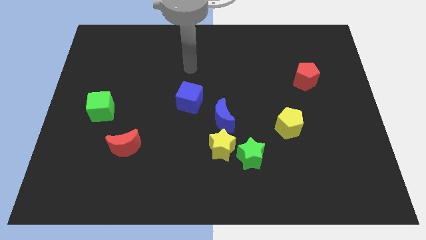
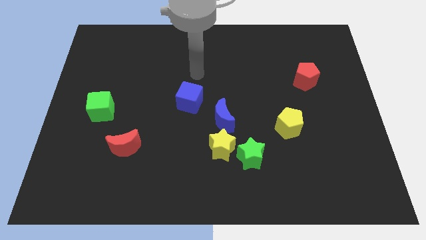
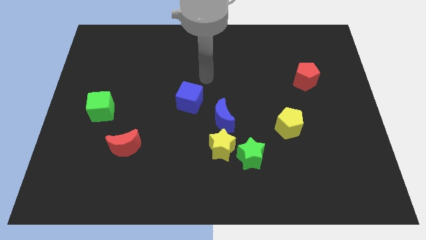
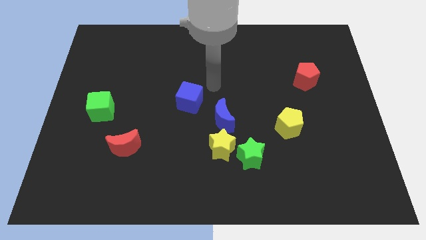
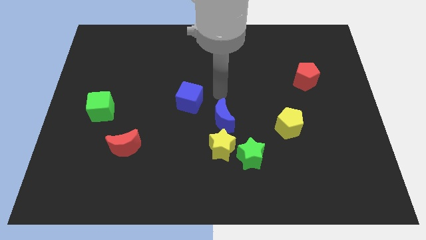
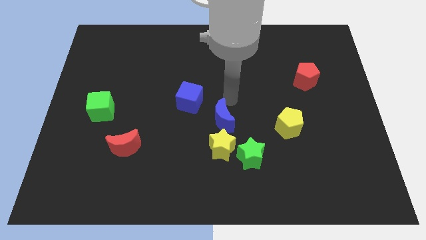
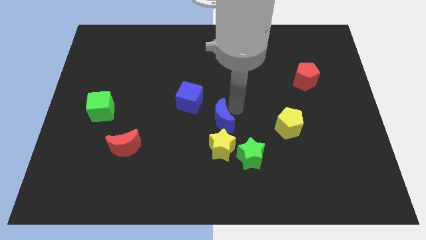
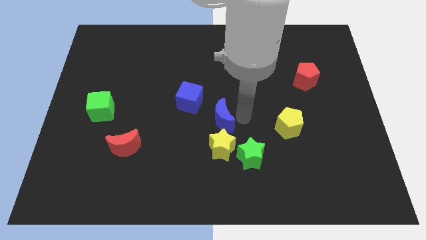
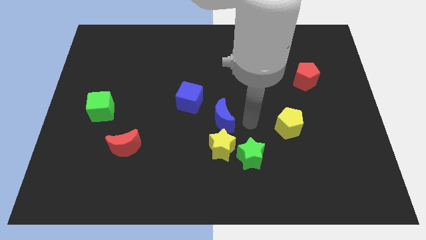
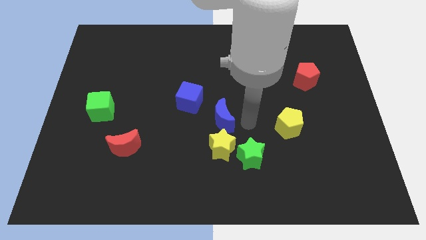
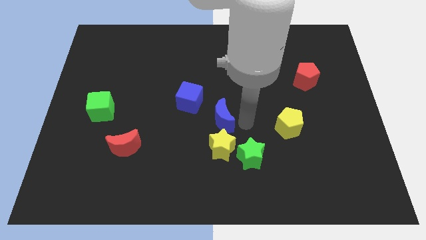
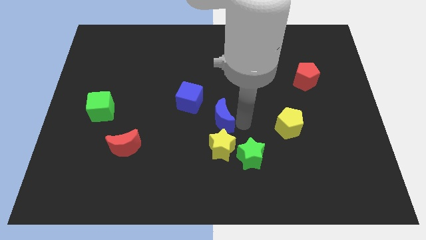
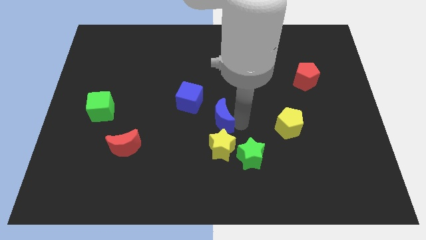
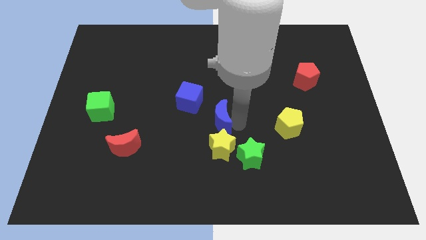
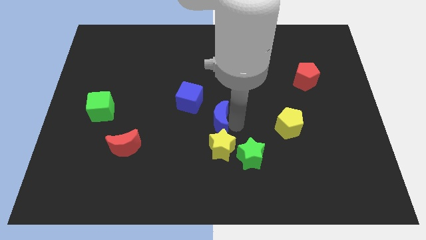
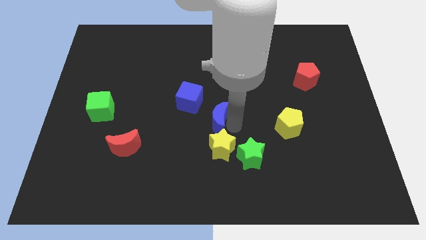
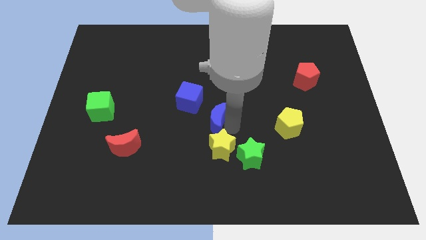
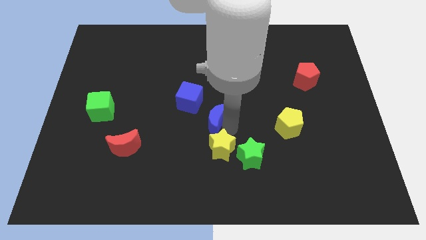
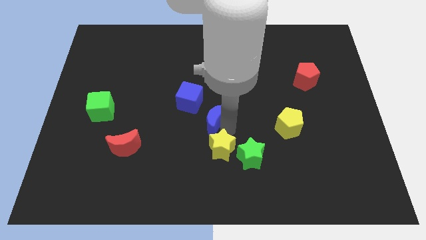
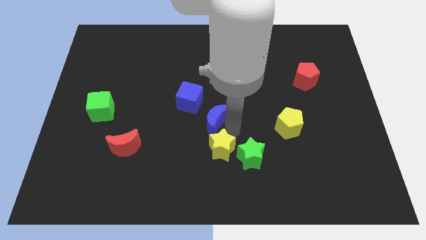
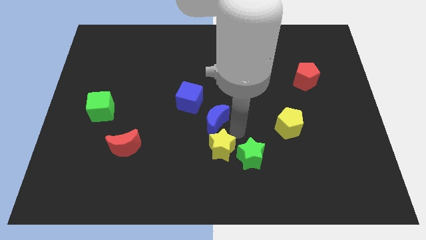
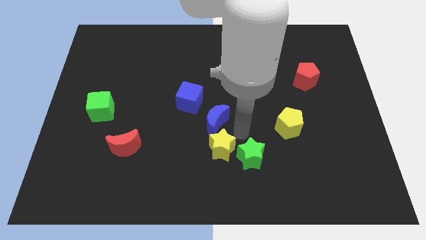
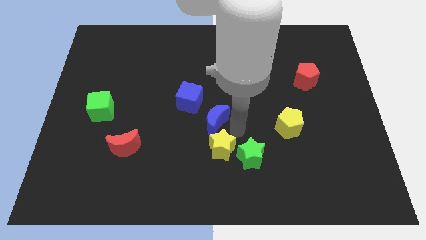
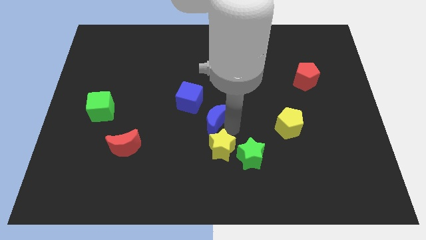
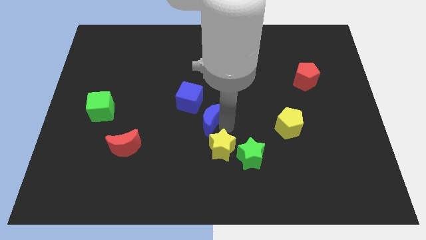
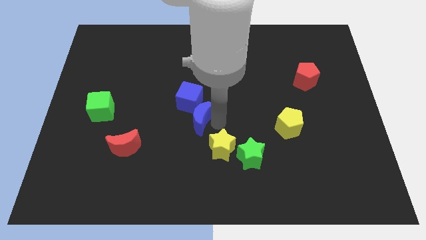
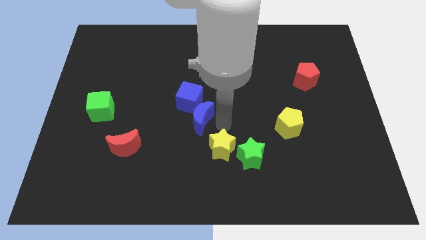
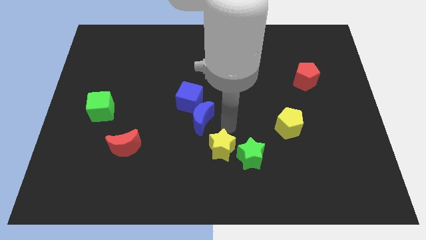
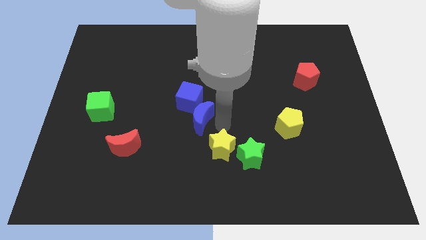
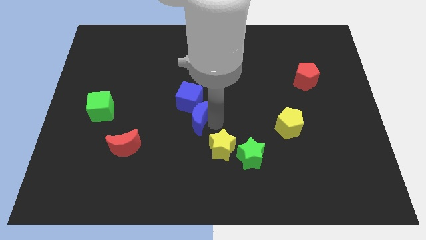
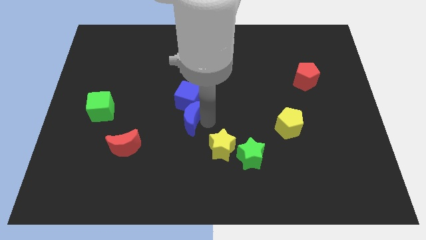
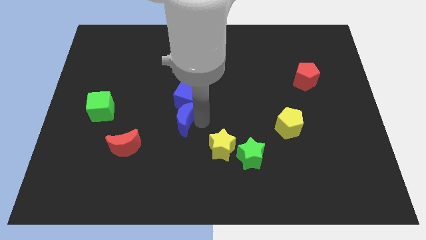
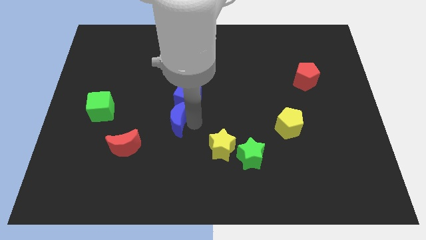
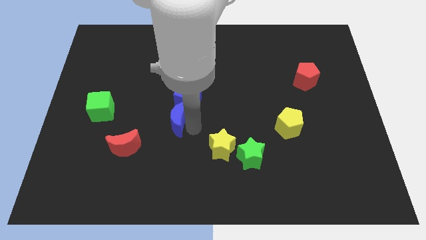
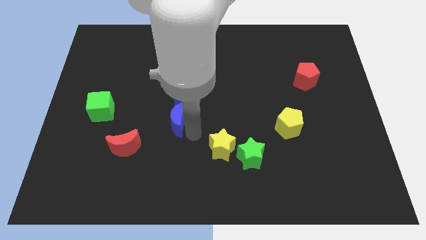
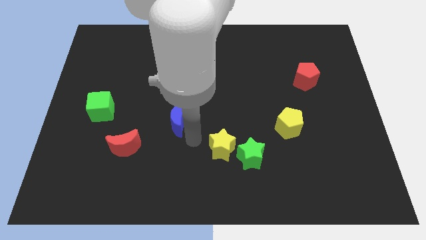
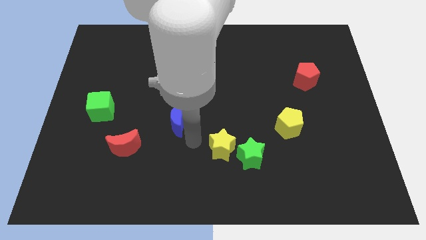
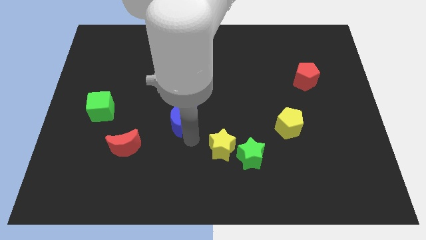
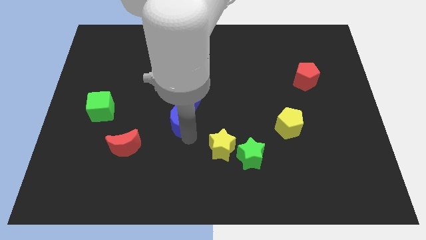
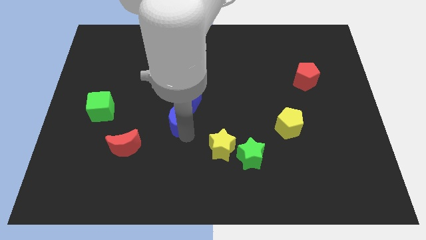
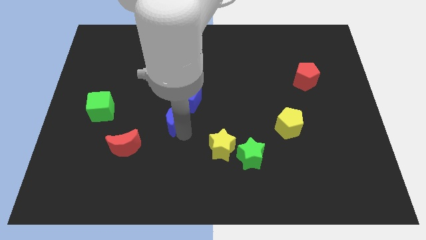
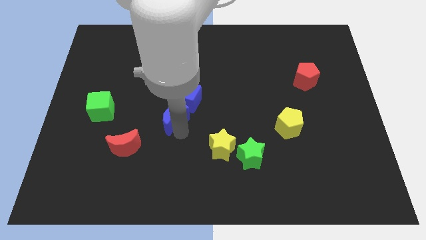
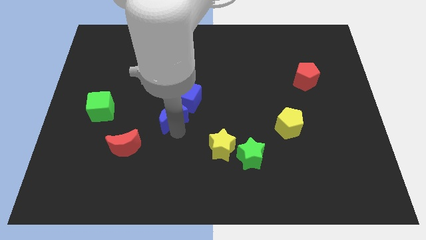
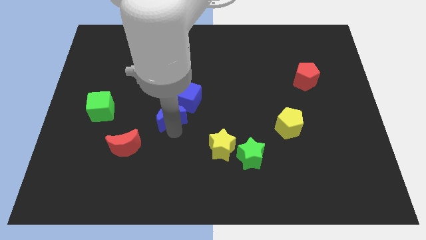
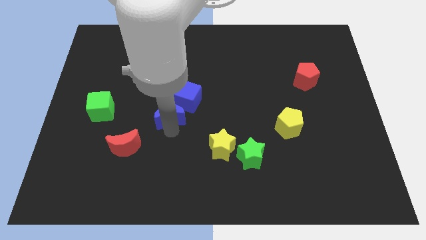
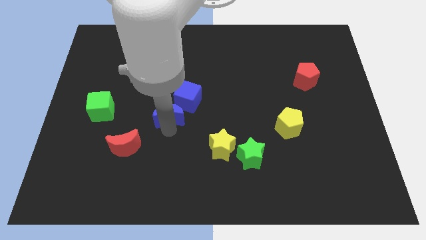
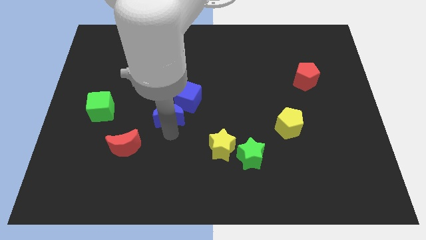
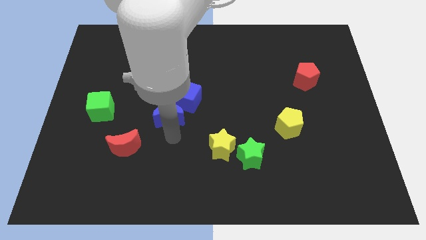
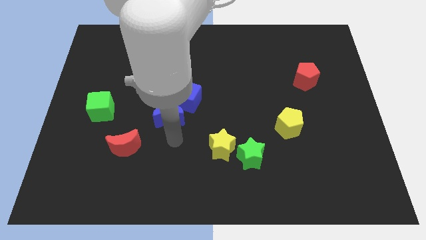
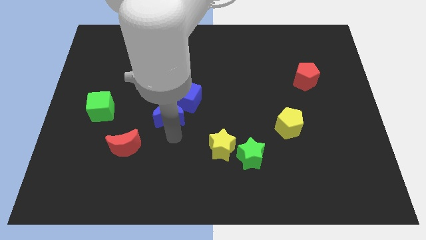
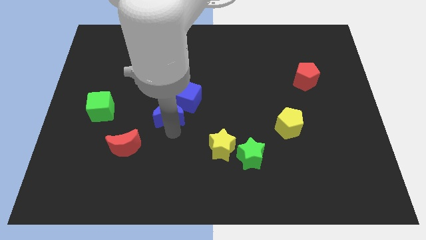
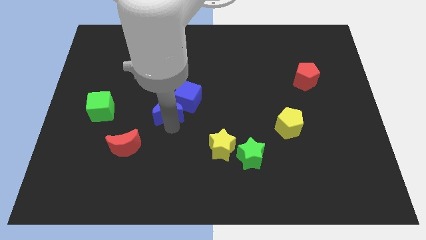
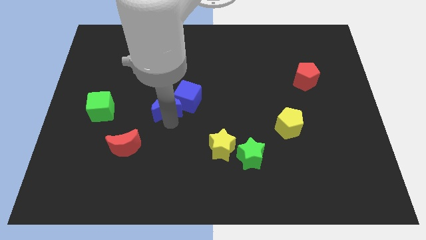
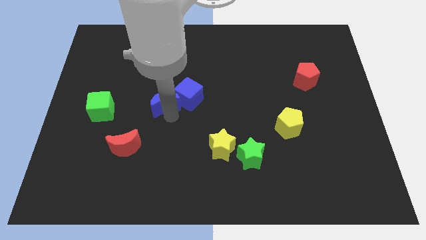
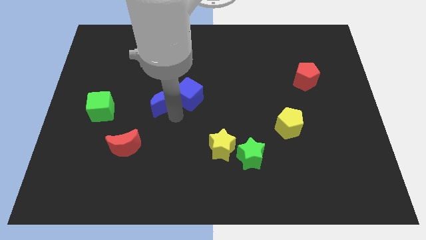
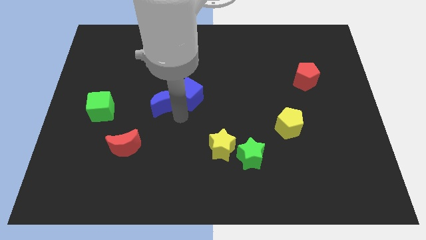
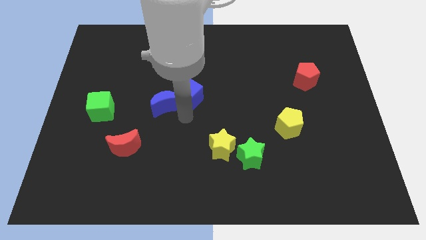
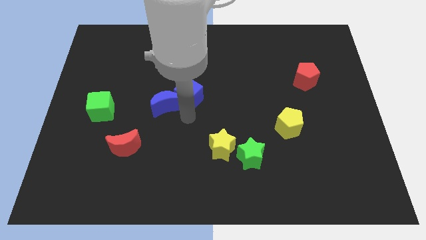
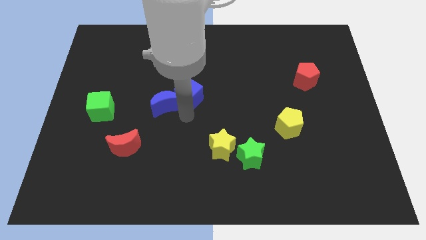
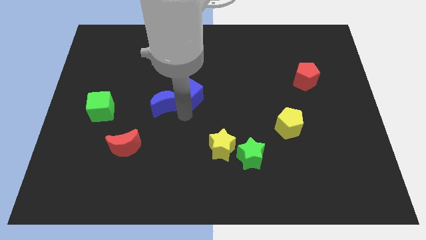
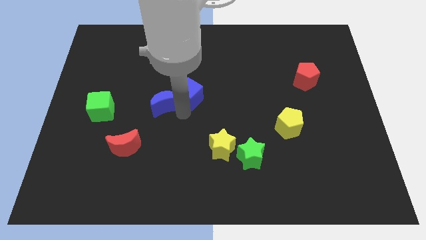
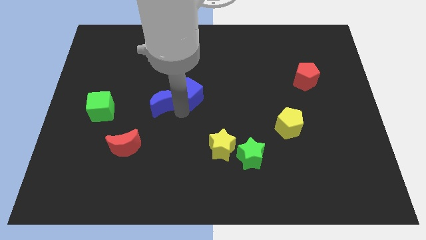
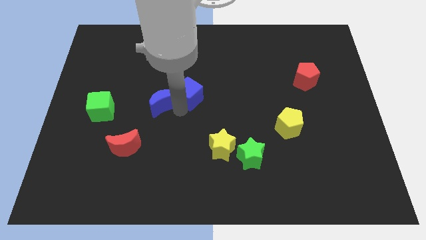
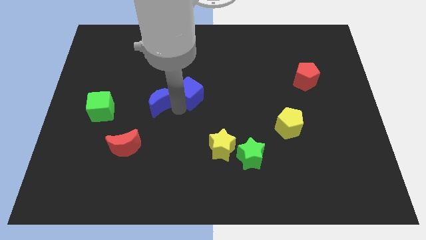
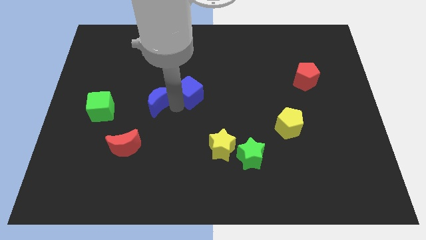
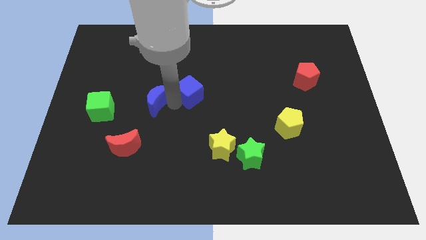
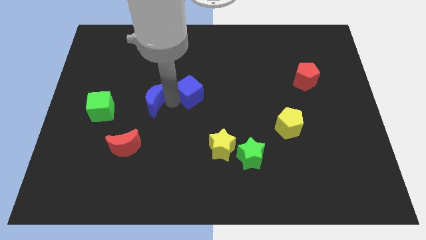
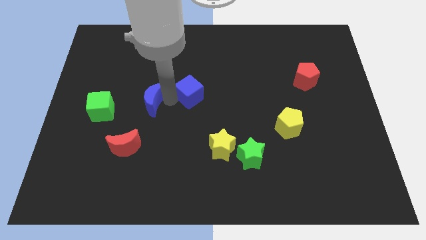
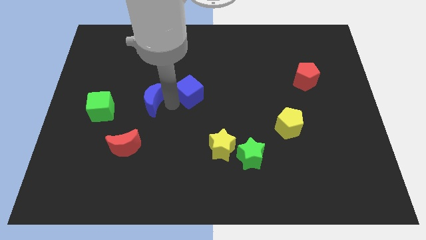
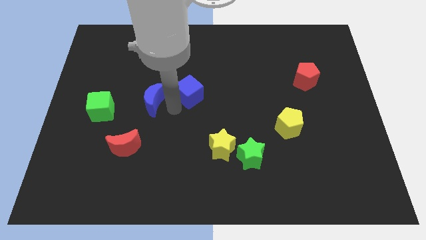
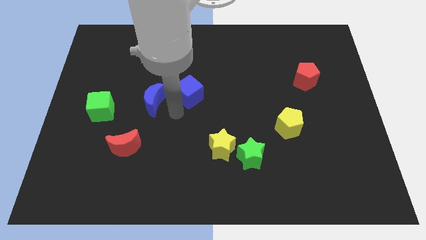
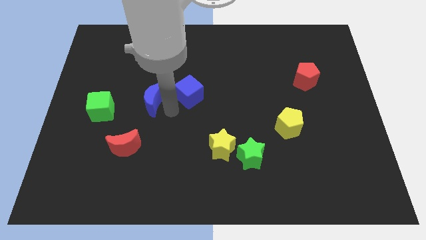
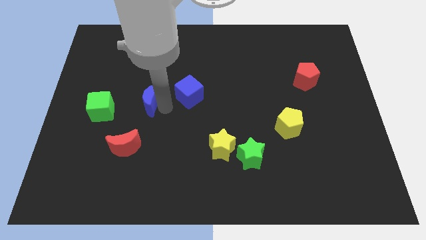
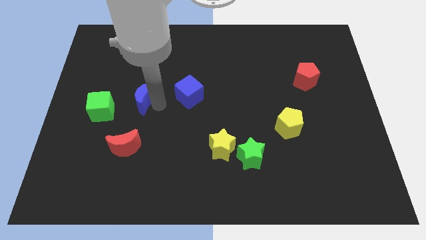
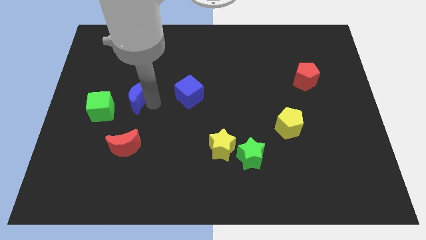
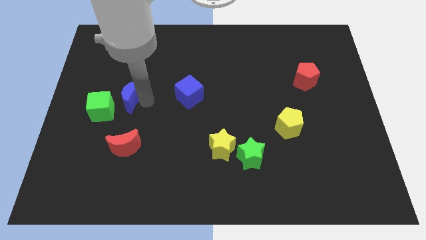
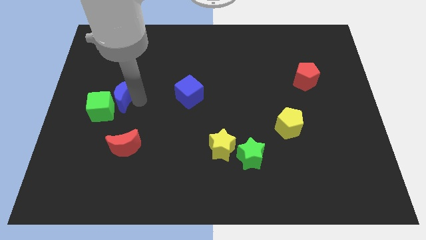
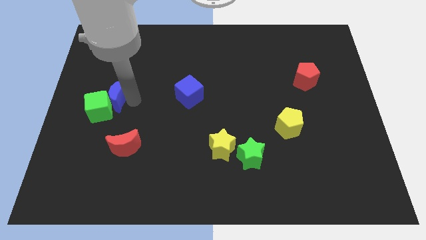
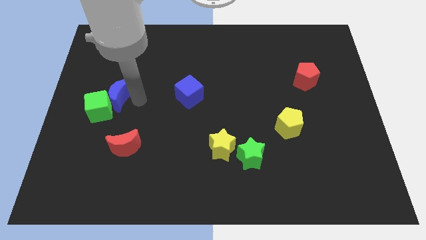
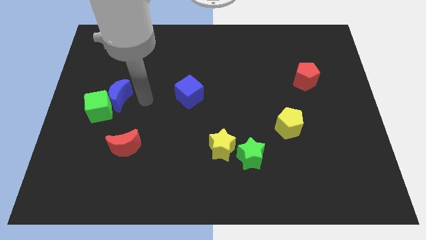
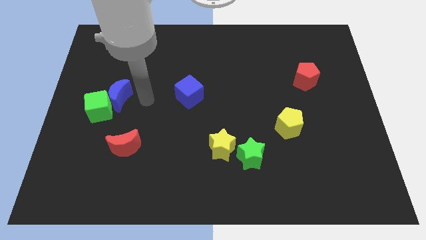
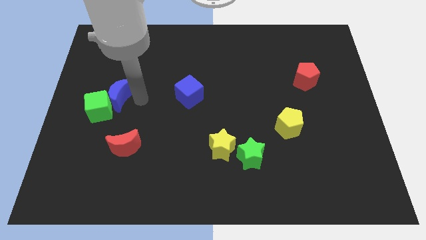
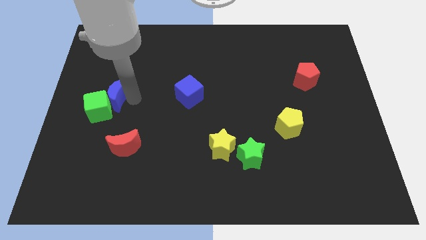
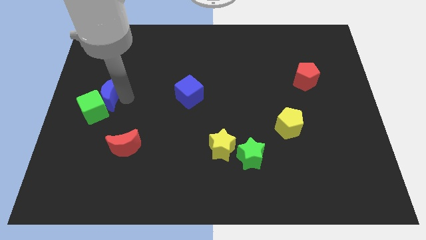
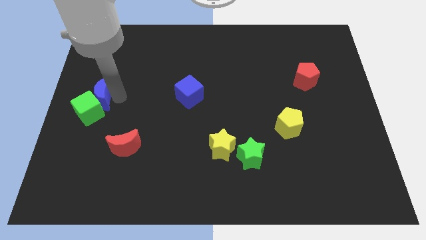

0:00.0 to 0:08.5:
push the blue moon to the left side
